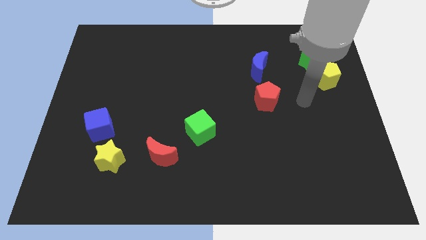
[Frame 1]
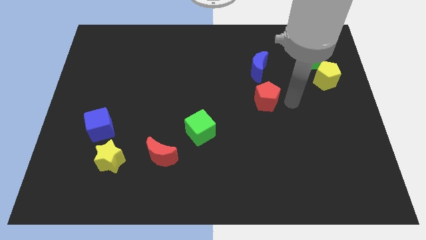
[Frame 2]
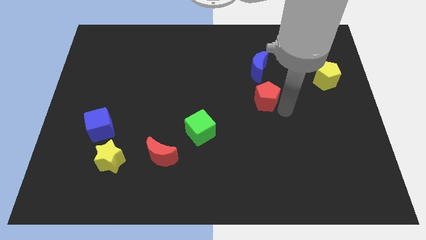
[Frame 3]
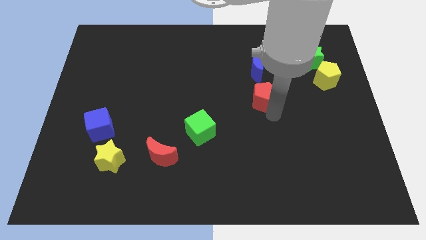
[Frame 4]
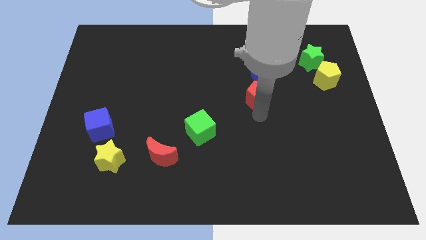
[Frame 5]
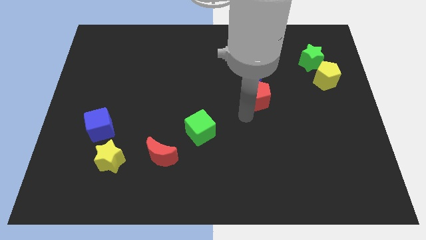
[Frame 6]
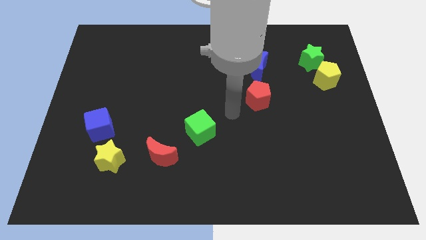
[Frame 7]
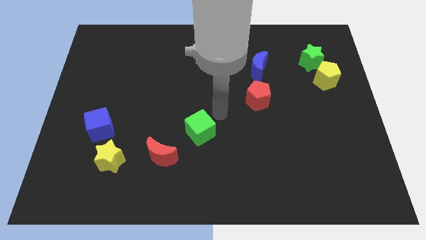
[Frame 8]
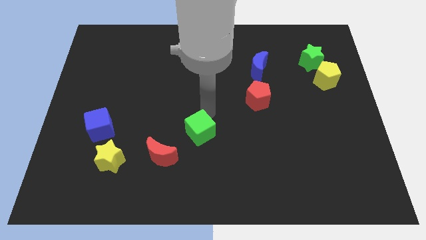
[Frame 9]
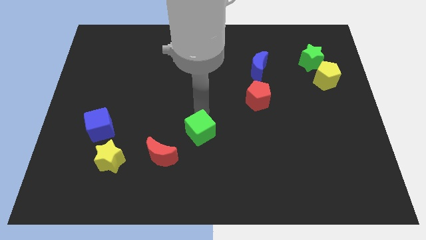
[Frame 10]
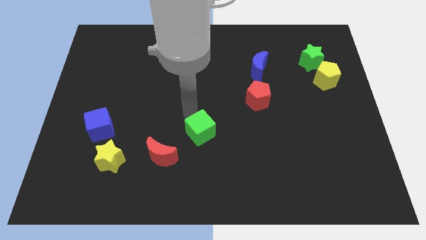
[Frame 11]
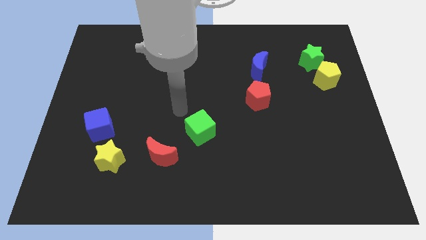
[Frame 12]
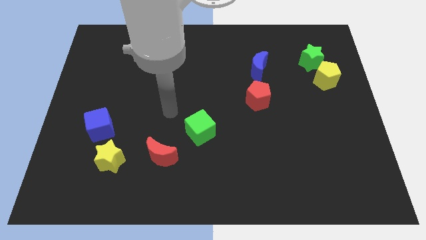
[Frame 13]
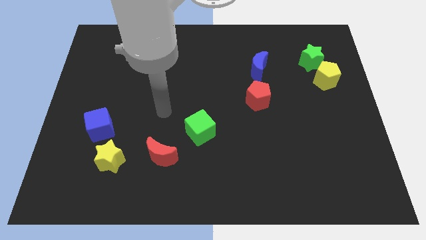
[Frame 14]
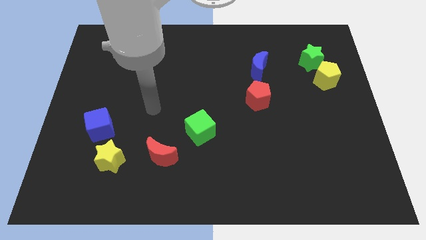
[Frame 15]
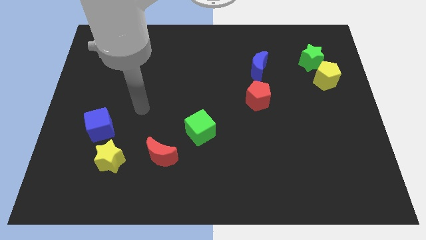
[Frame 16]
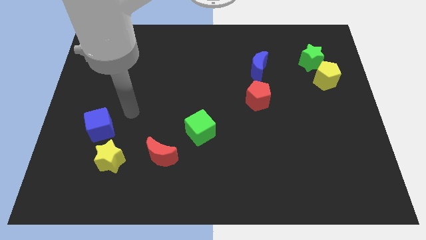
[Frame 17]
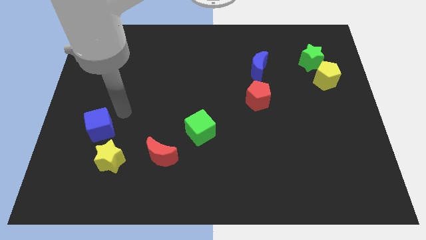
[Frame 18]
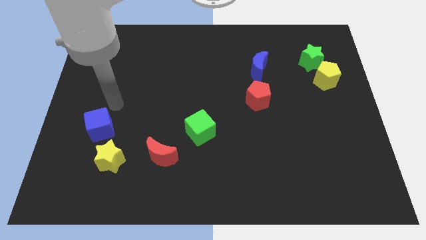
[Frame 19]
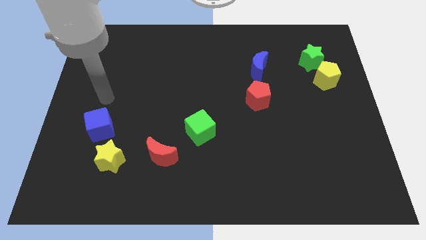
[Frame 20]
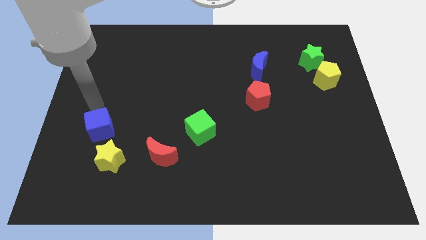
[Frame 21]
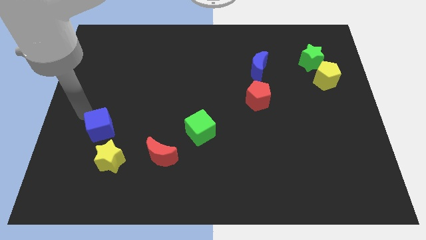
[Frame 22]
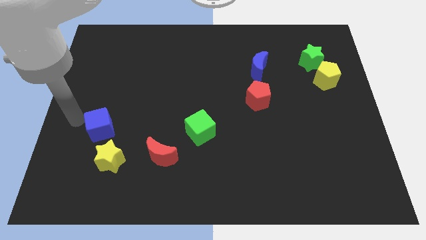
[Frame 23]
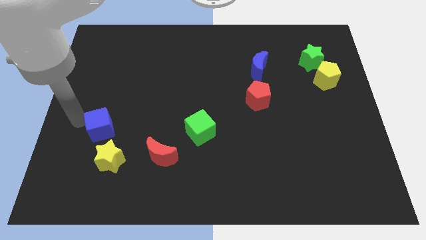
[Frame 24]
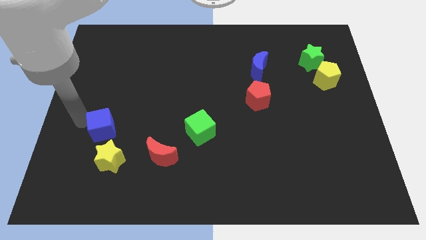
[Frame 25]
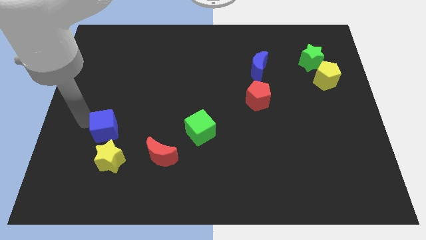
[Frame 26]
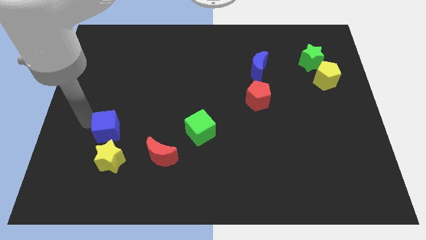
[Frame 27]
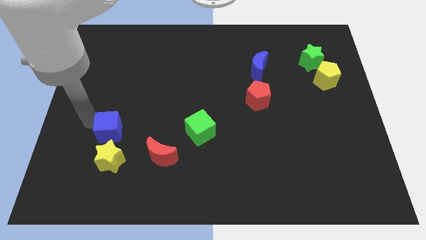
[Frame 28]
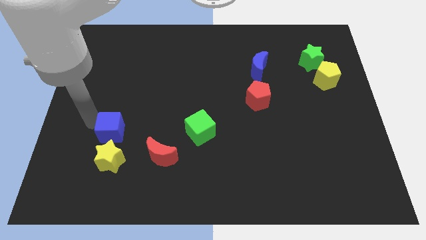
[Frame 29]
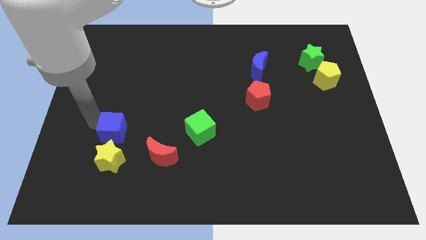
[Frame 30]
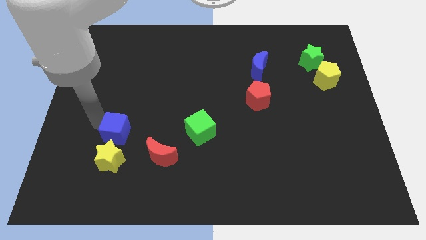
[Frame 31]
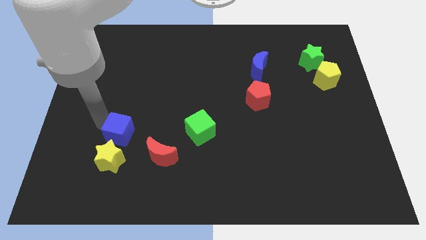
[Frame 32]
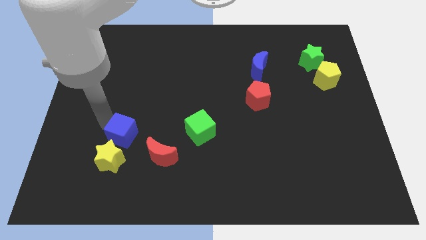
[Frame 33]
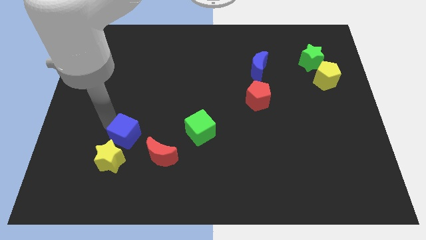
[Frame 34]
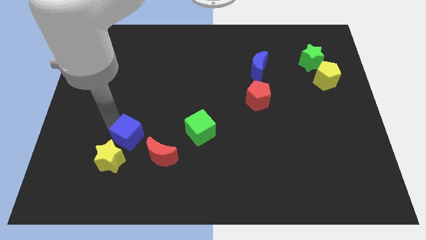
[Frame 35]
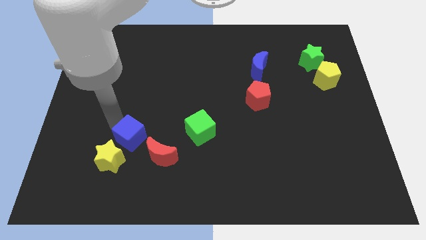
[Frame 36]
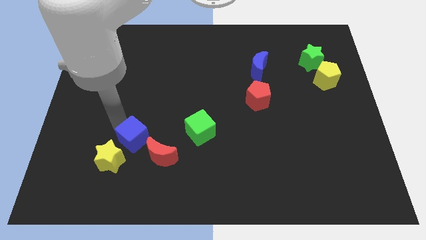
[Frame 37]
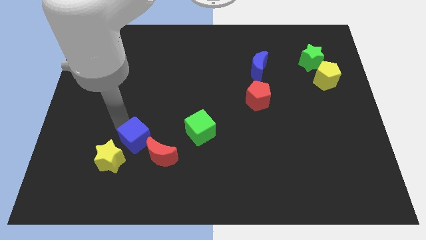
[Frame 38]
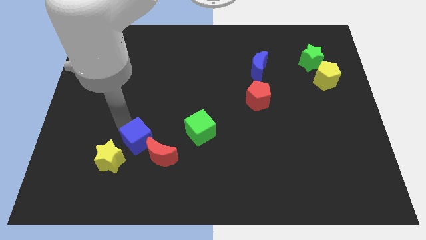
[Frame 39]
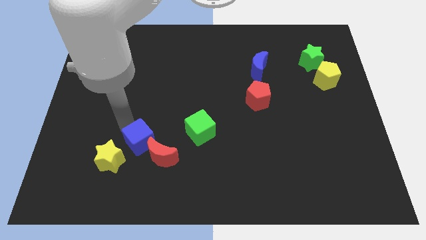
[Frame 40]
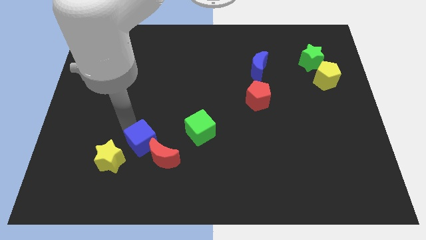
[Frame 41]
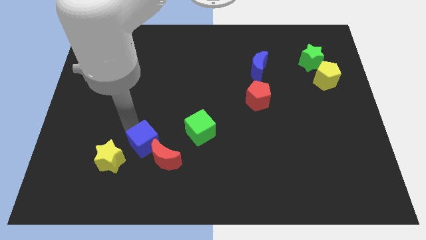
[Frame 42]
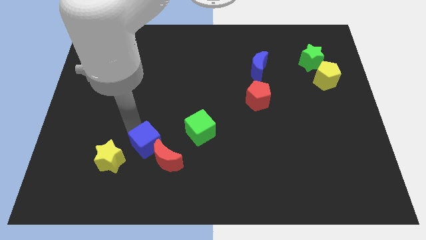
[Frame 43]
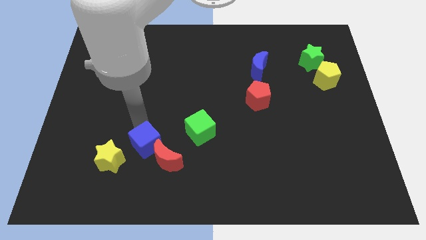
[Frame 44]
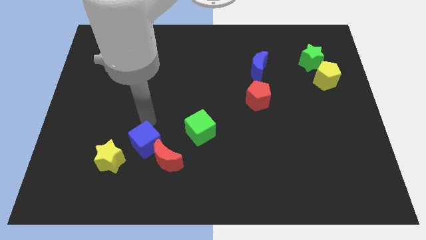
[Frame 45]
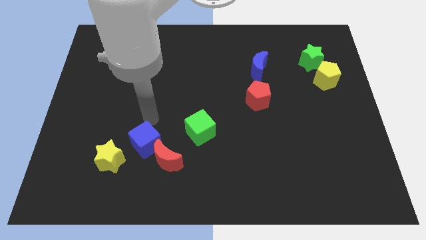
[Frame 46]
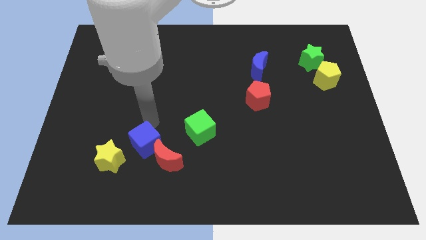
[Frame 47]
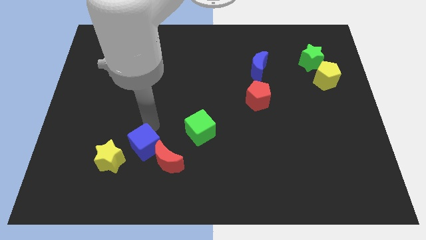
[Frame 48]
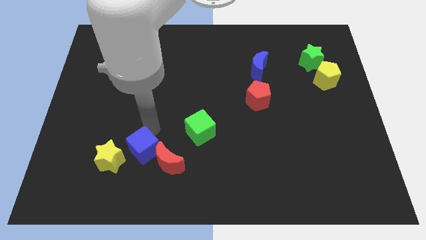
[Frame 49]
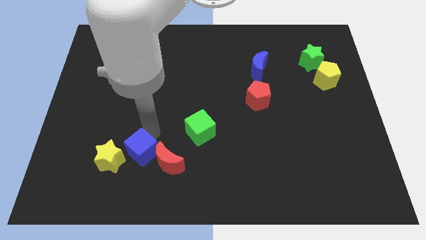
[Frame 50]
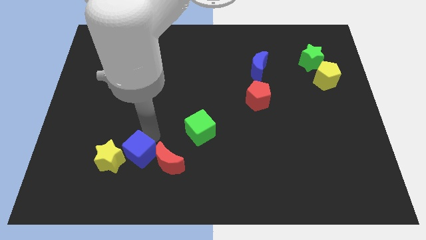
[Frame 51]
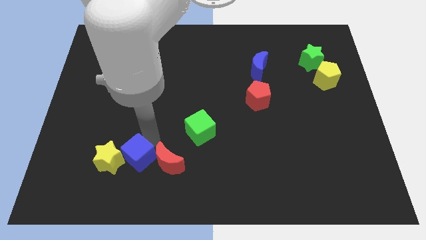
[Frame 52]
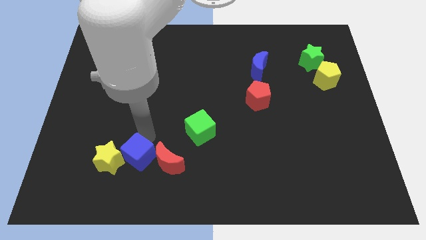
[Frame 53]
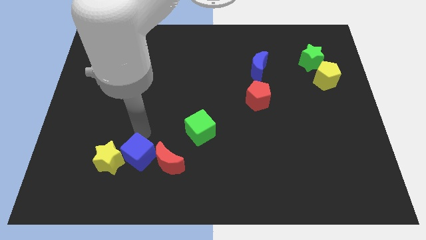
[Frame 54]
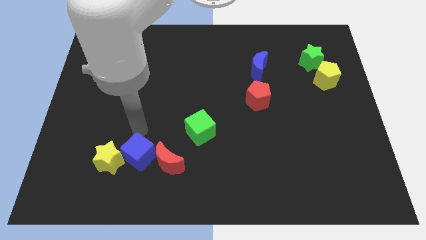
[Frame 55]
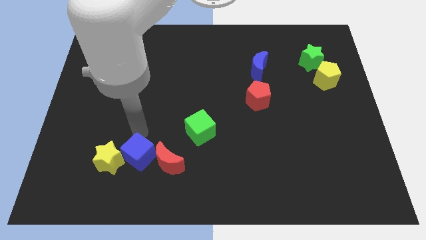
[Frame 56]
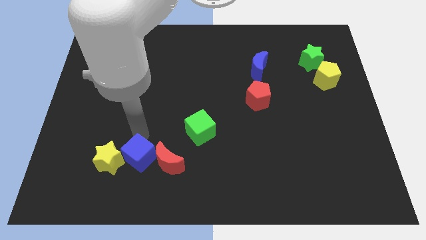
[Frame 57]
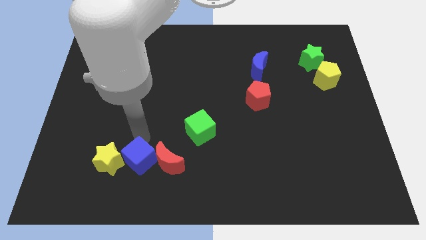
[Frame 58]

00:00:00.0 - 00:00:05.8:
put the blue cube diagonally down and to the left of the red moon

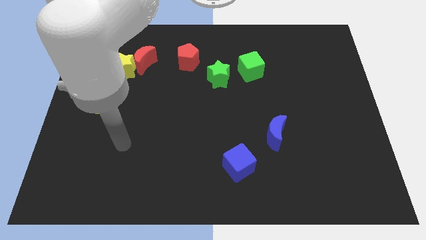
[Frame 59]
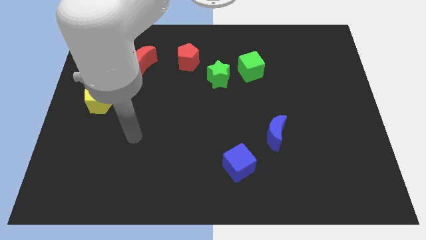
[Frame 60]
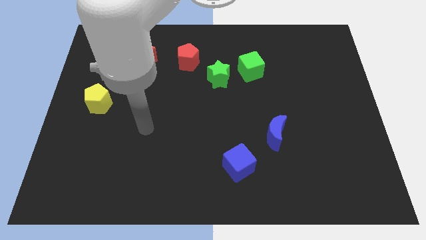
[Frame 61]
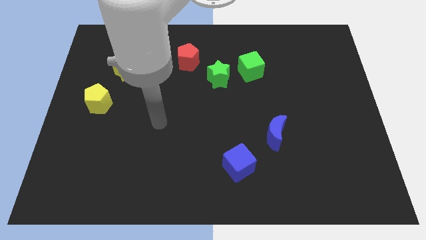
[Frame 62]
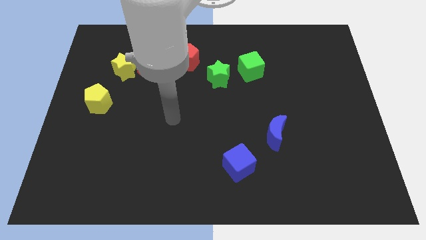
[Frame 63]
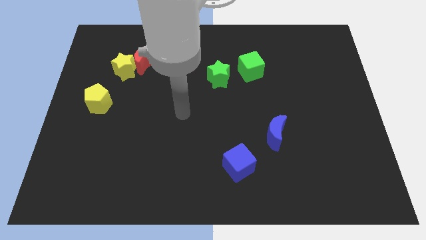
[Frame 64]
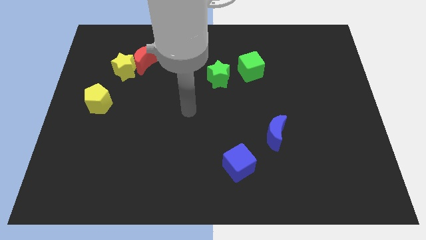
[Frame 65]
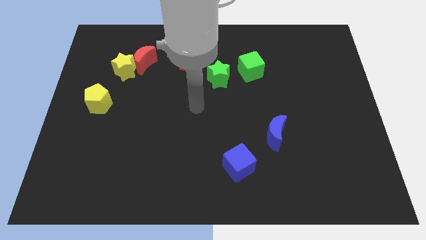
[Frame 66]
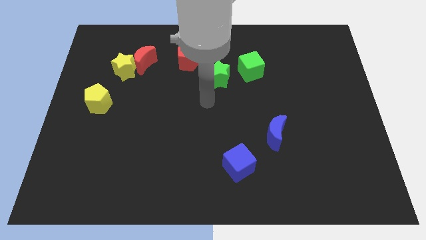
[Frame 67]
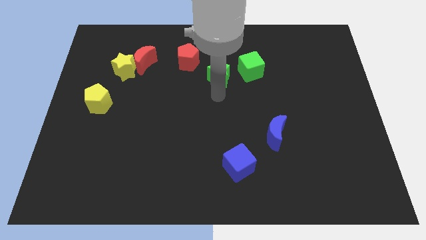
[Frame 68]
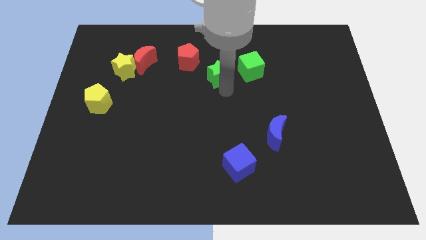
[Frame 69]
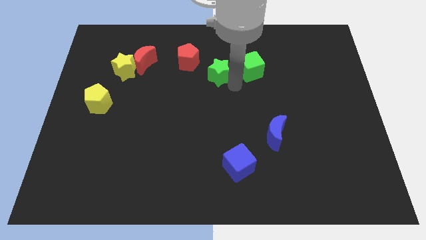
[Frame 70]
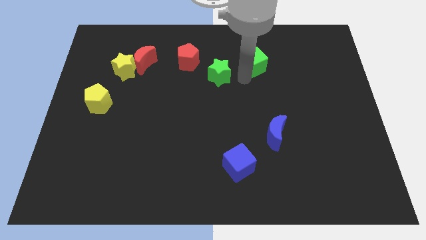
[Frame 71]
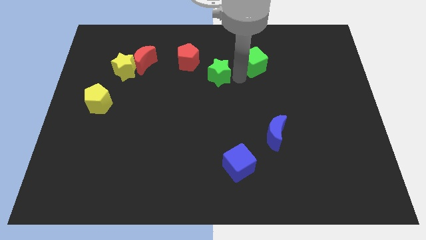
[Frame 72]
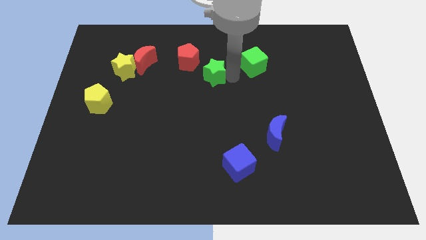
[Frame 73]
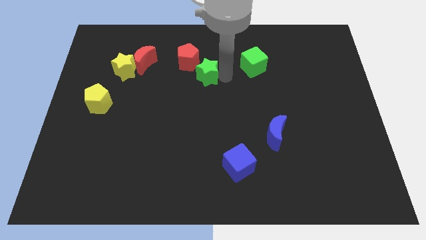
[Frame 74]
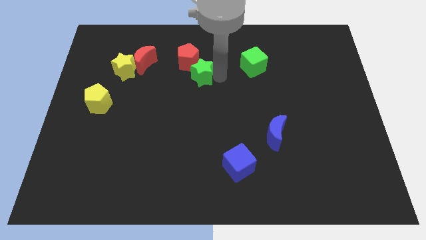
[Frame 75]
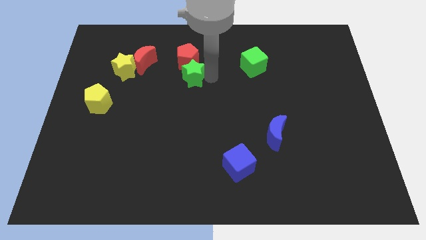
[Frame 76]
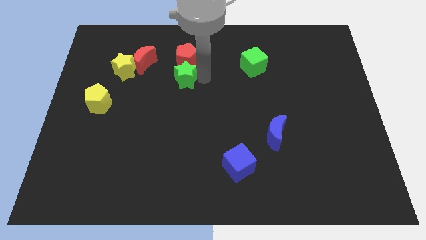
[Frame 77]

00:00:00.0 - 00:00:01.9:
slide the green star right of the yellow star

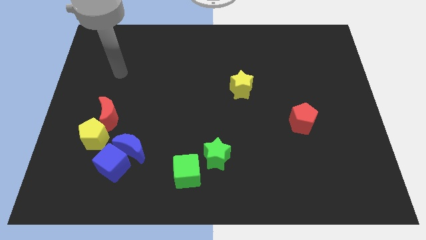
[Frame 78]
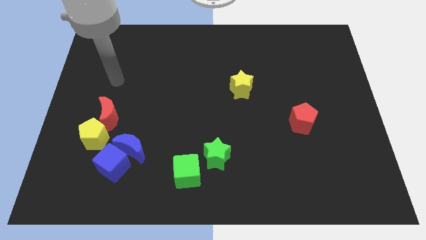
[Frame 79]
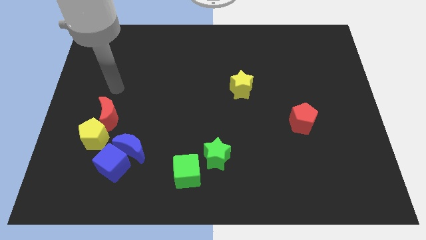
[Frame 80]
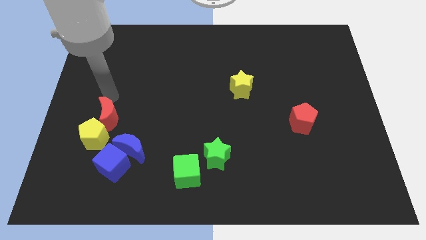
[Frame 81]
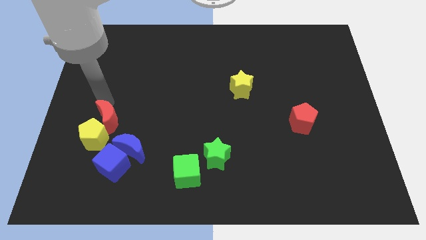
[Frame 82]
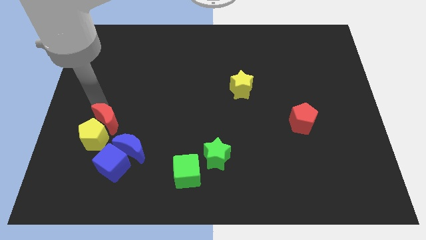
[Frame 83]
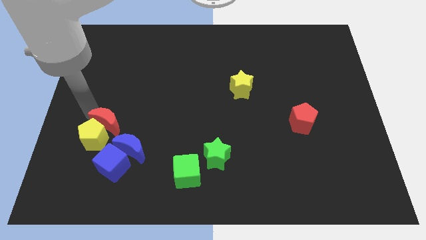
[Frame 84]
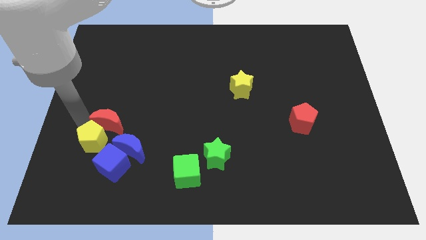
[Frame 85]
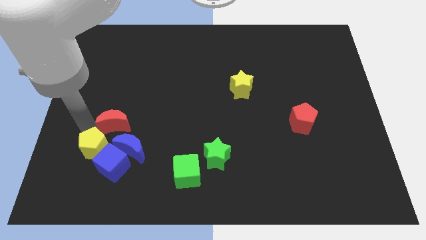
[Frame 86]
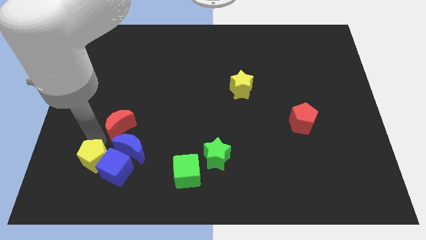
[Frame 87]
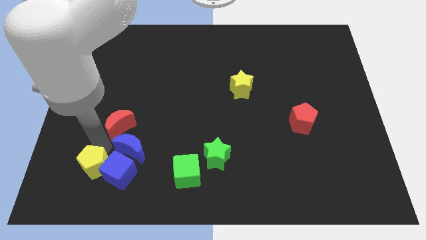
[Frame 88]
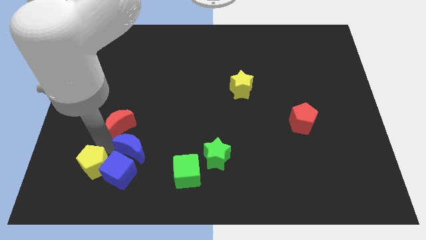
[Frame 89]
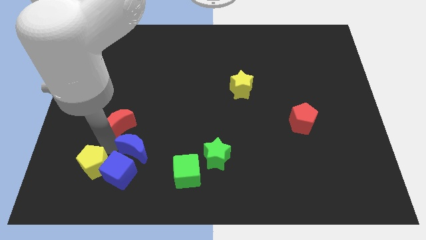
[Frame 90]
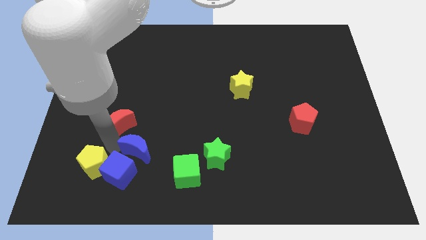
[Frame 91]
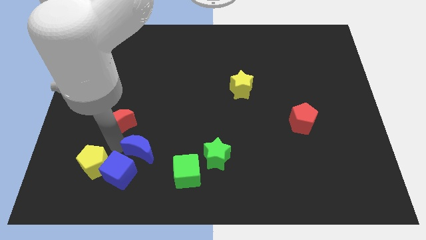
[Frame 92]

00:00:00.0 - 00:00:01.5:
put the blue moon to the top left of the green cube
